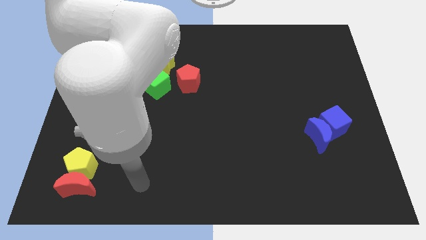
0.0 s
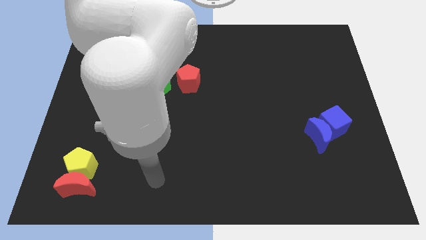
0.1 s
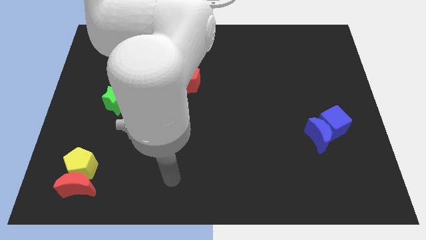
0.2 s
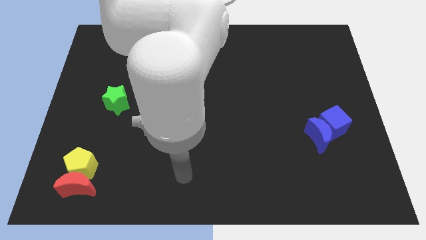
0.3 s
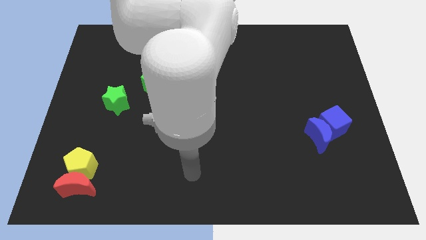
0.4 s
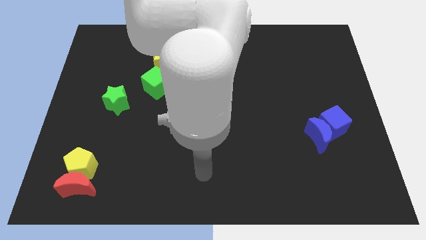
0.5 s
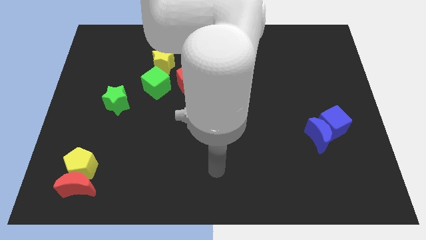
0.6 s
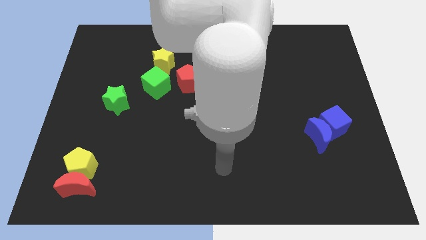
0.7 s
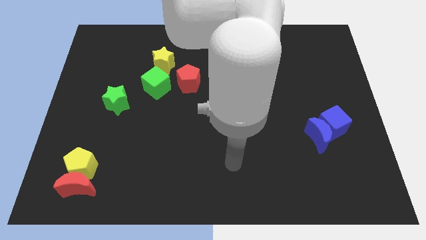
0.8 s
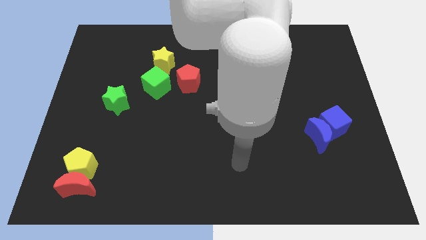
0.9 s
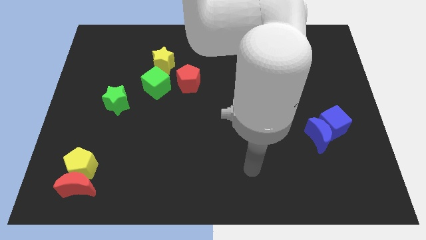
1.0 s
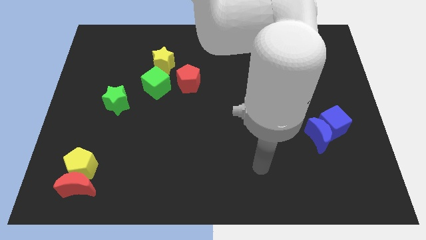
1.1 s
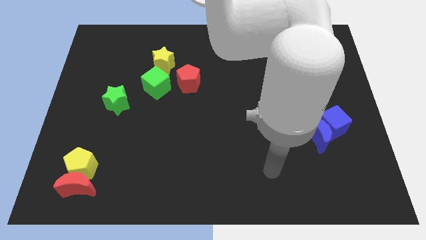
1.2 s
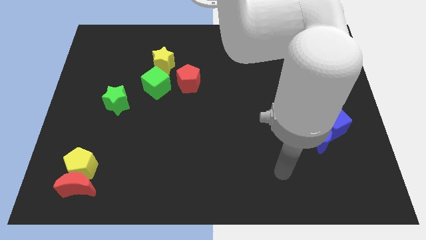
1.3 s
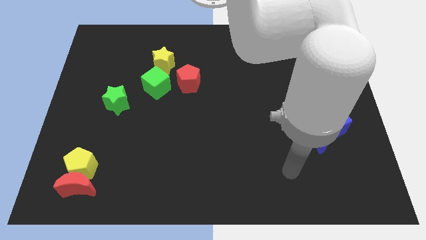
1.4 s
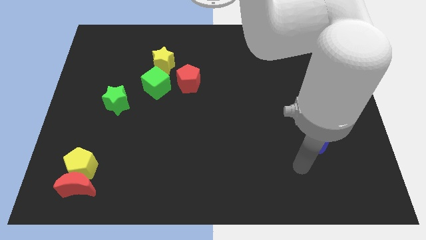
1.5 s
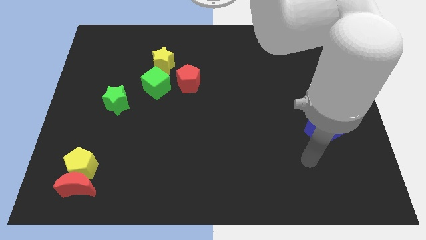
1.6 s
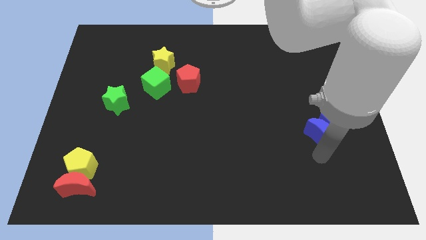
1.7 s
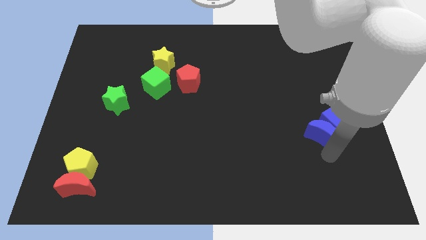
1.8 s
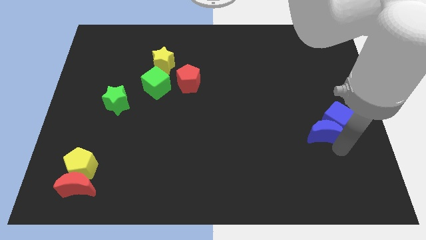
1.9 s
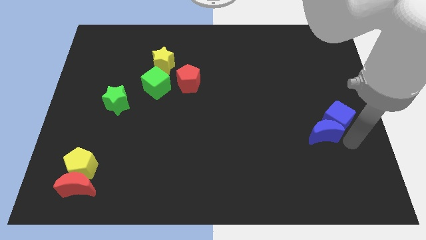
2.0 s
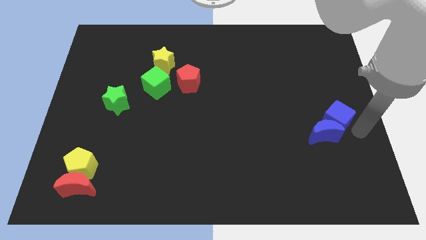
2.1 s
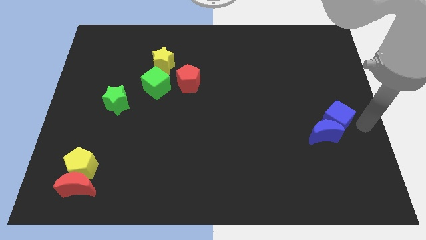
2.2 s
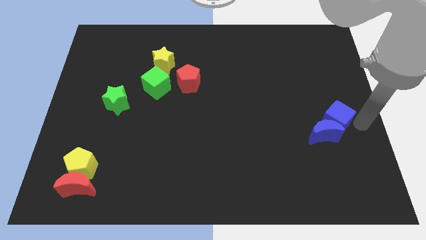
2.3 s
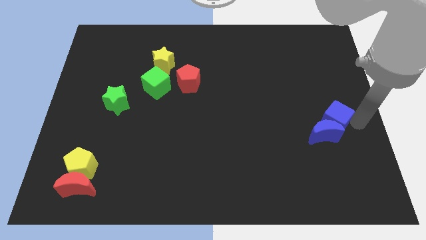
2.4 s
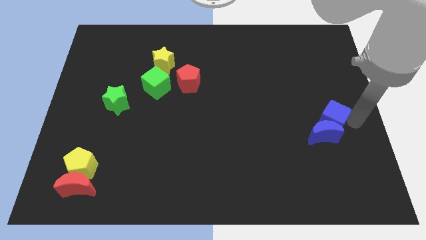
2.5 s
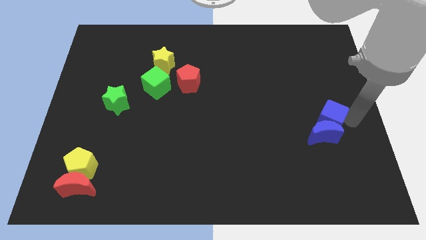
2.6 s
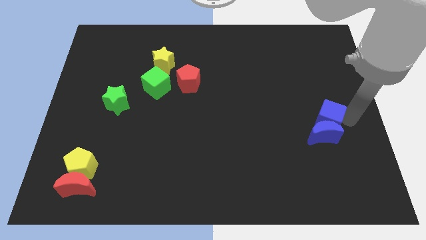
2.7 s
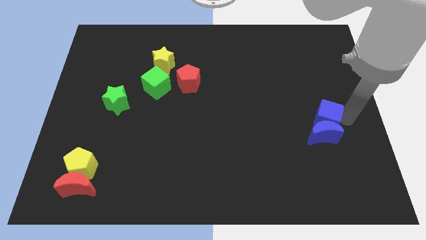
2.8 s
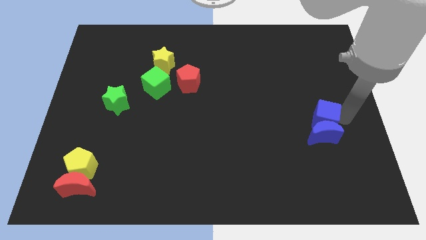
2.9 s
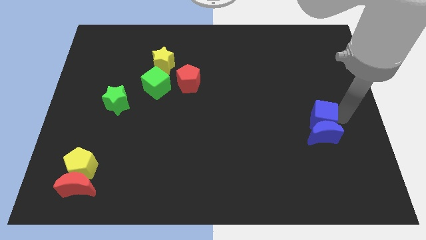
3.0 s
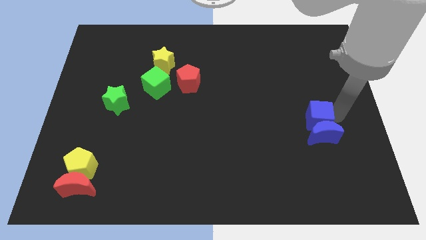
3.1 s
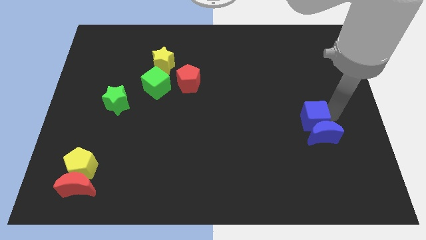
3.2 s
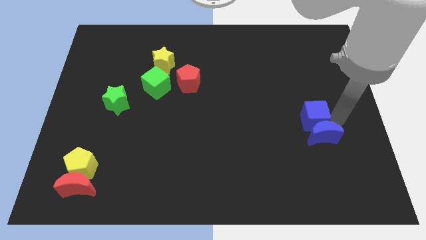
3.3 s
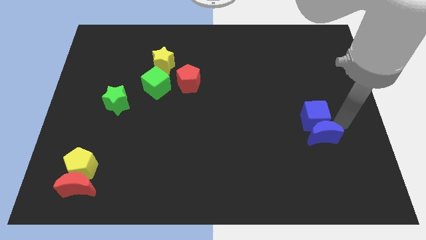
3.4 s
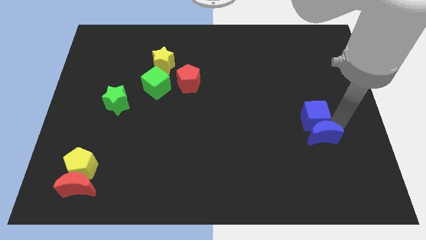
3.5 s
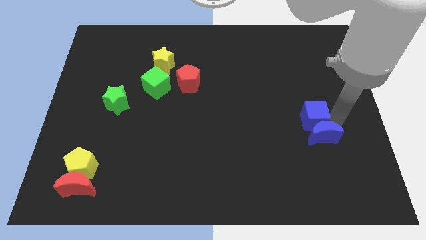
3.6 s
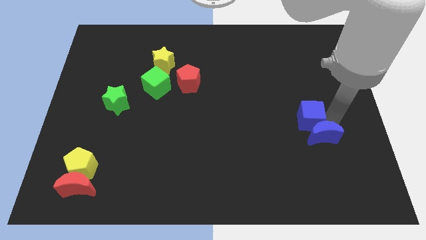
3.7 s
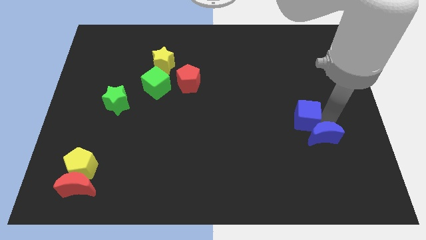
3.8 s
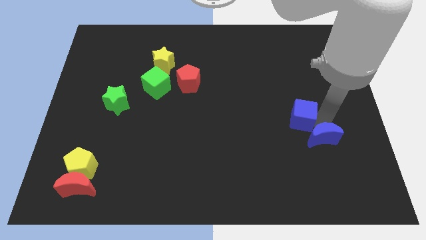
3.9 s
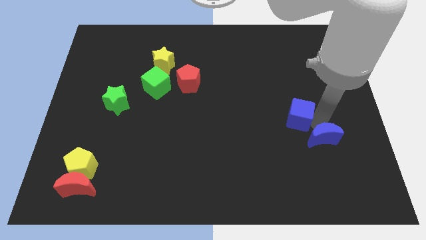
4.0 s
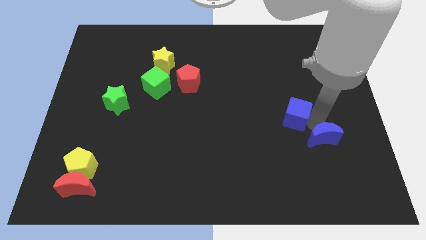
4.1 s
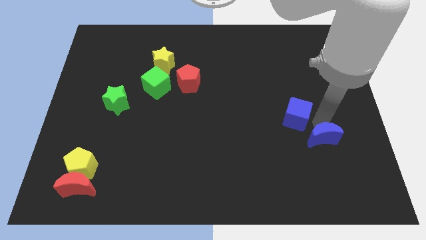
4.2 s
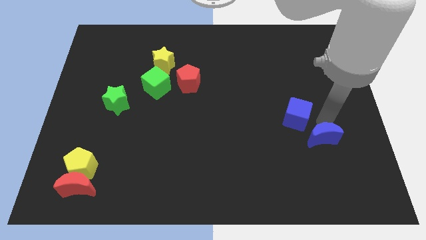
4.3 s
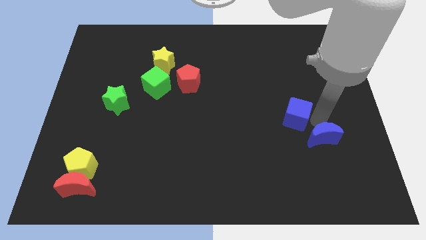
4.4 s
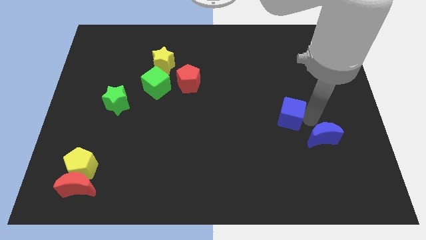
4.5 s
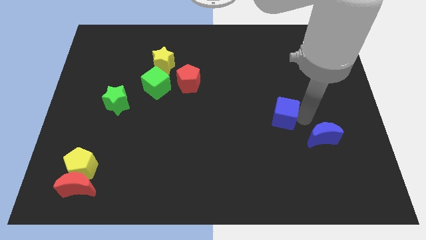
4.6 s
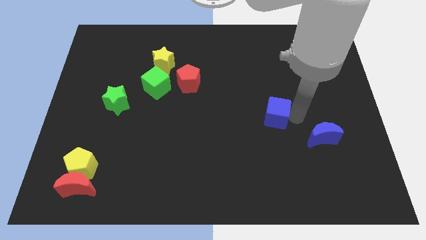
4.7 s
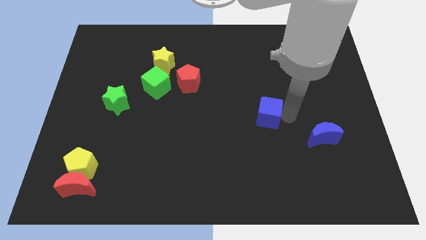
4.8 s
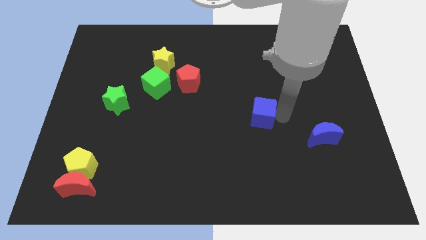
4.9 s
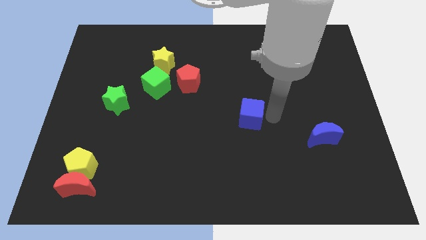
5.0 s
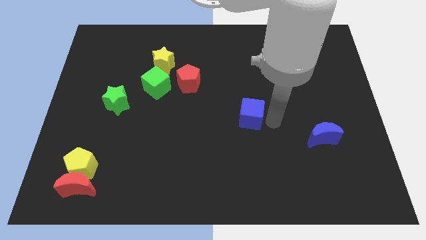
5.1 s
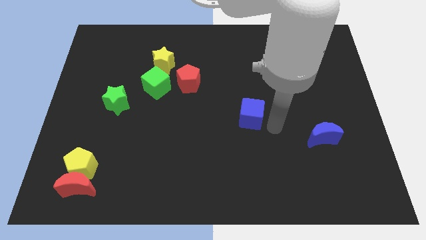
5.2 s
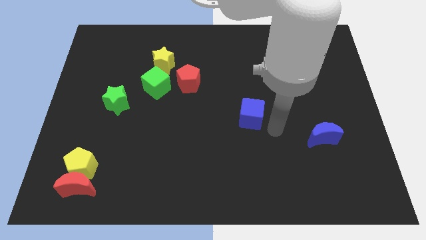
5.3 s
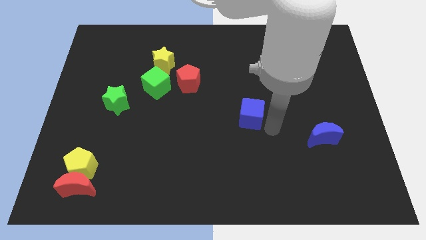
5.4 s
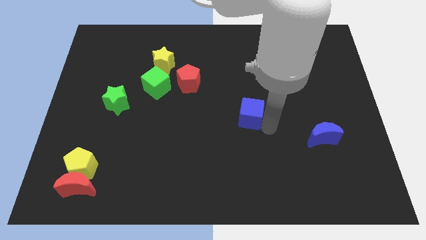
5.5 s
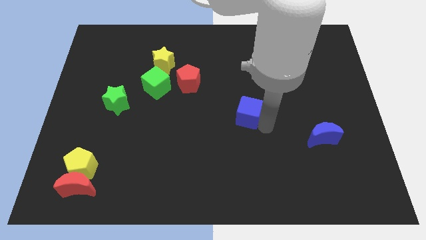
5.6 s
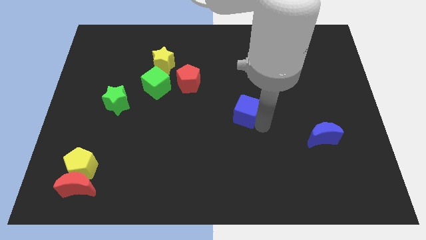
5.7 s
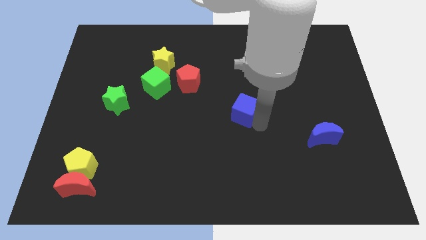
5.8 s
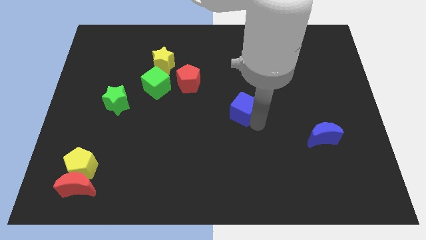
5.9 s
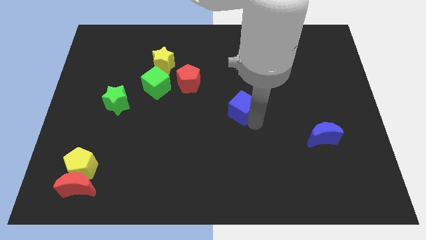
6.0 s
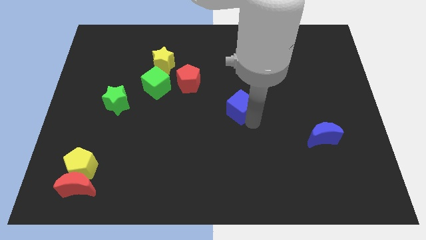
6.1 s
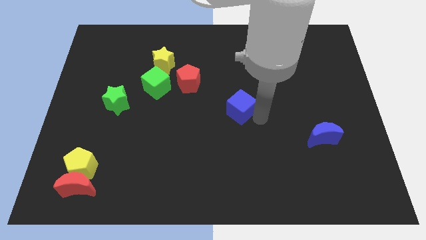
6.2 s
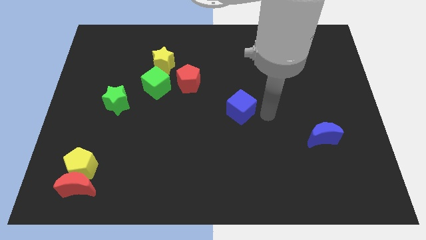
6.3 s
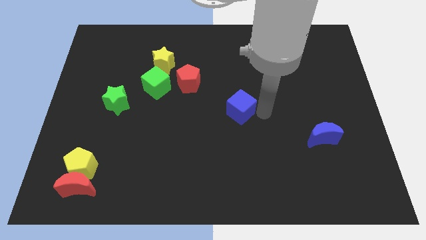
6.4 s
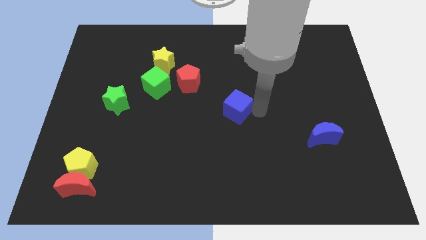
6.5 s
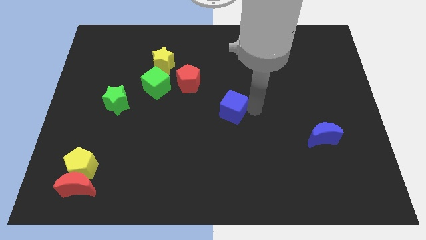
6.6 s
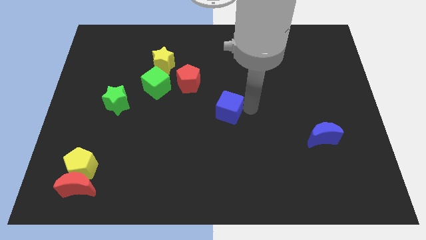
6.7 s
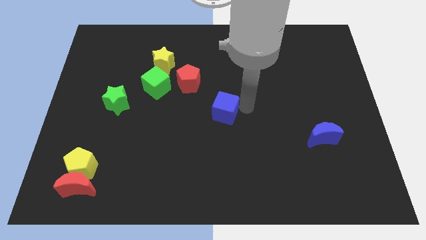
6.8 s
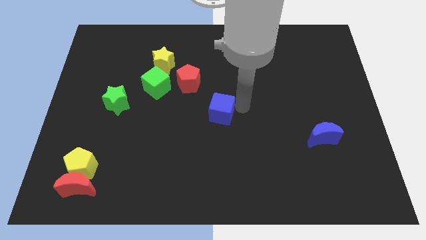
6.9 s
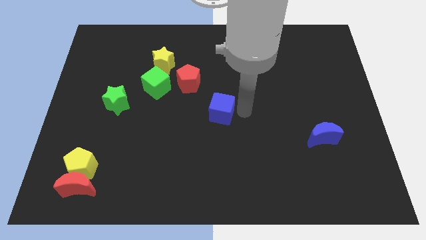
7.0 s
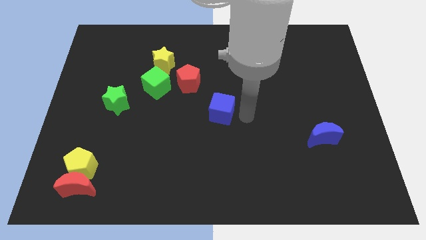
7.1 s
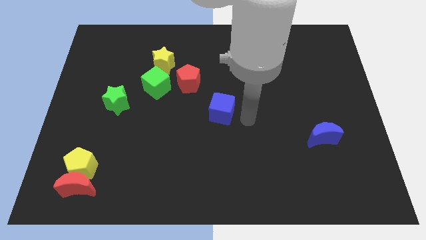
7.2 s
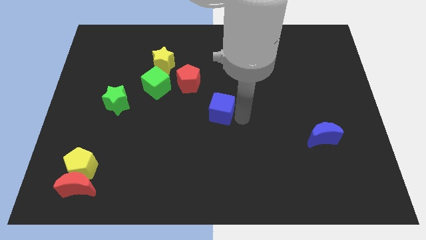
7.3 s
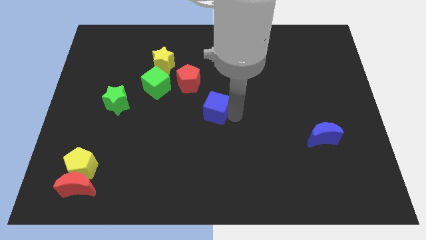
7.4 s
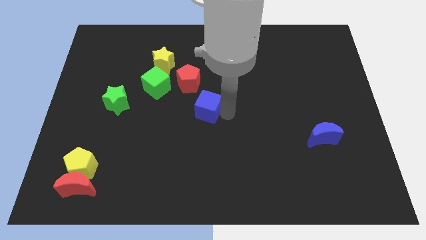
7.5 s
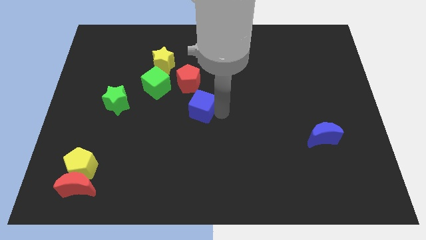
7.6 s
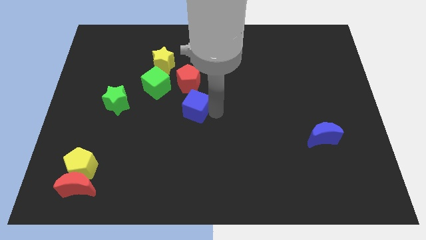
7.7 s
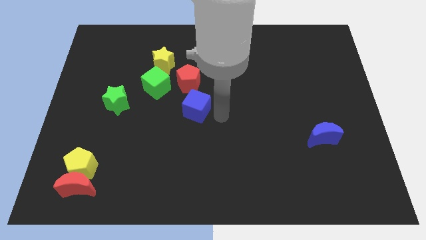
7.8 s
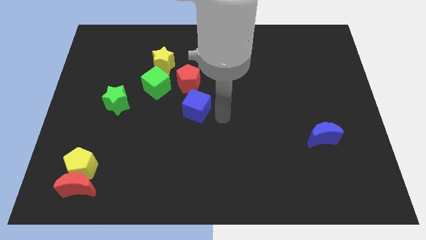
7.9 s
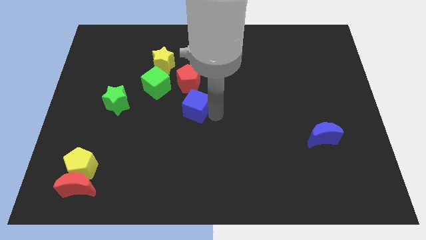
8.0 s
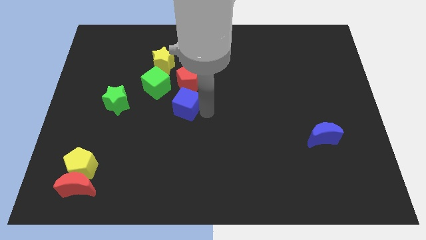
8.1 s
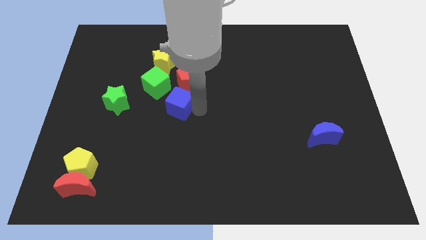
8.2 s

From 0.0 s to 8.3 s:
push the blue cube to the bottom left side of the red pentagon
